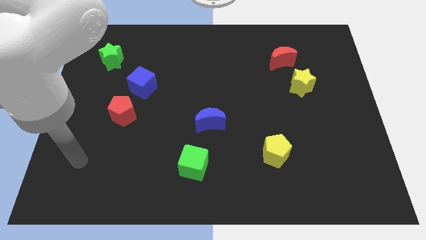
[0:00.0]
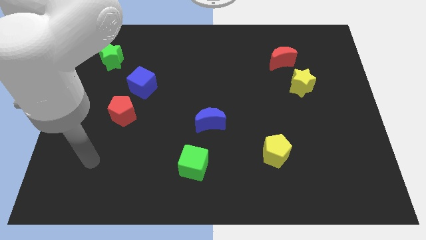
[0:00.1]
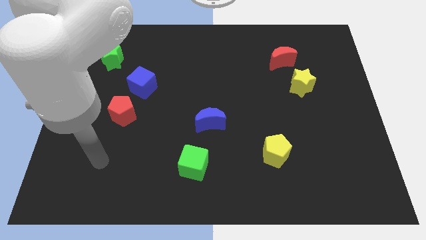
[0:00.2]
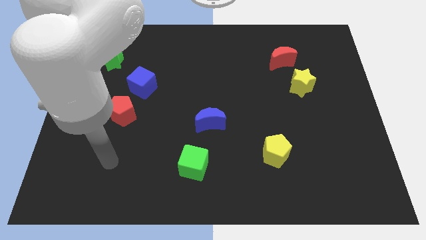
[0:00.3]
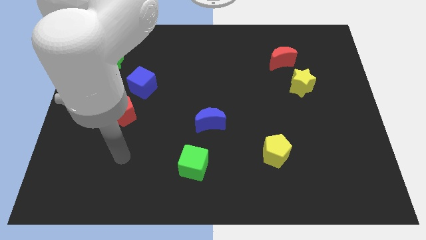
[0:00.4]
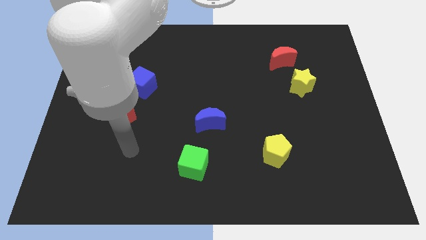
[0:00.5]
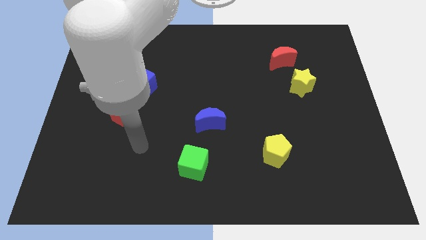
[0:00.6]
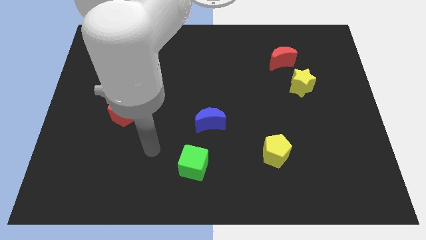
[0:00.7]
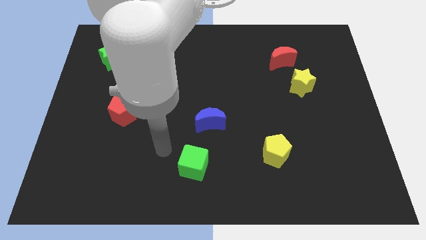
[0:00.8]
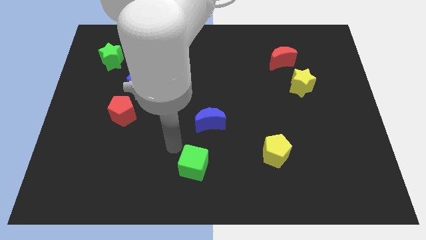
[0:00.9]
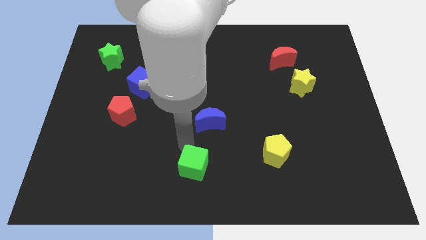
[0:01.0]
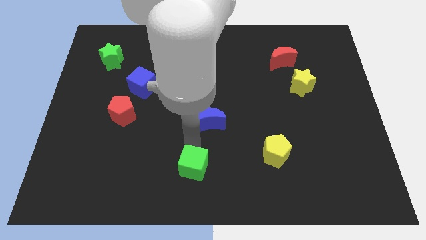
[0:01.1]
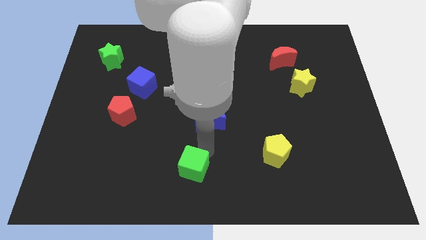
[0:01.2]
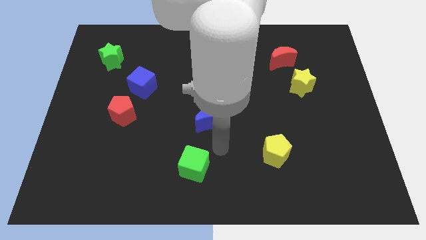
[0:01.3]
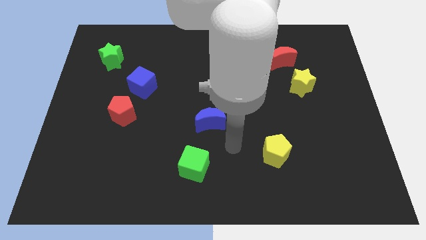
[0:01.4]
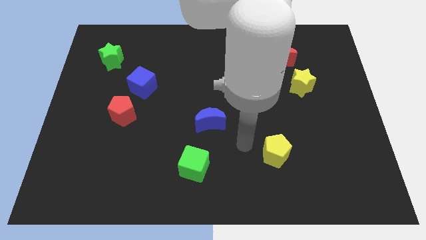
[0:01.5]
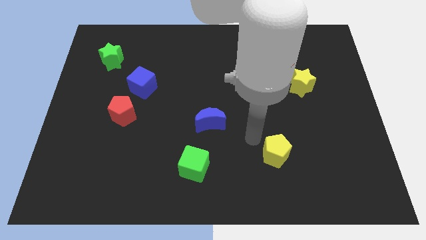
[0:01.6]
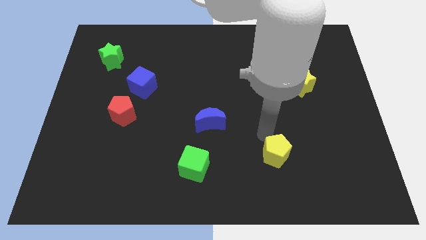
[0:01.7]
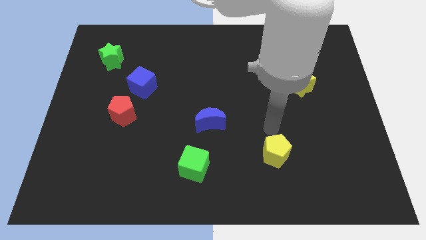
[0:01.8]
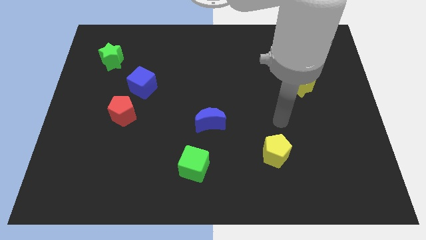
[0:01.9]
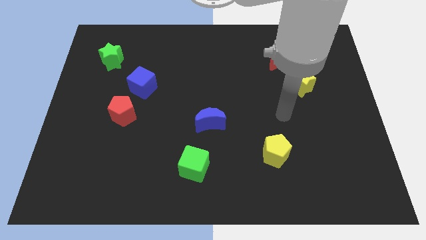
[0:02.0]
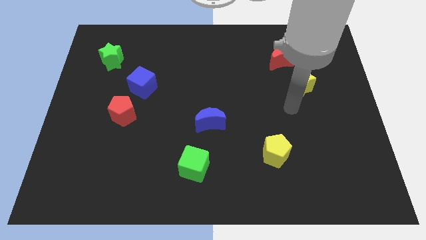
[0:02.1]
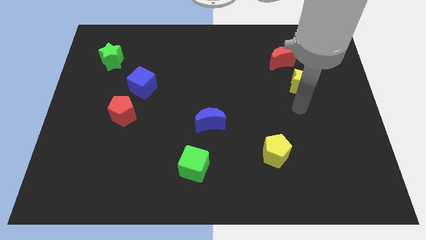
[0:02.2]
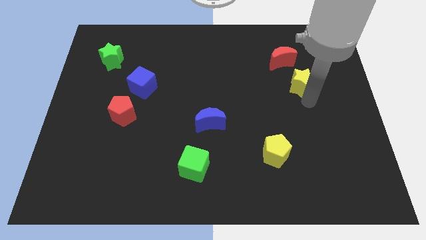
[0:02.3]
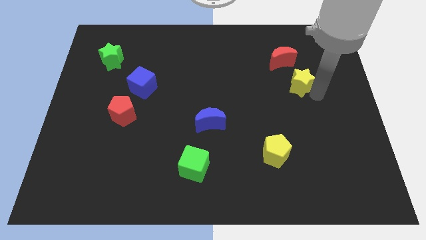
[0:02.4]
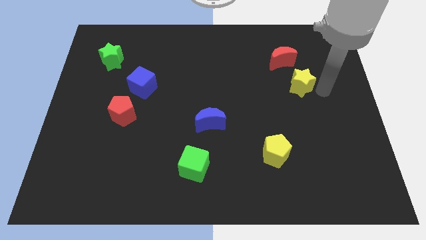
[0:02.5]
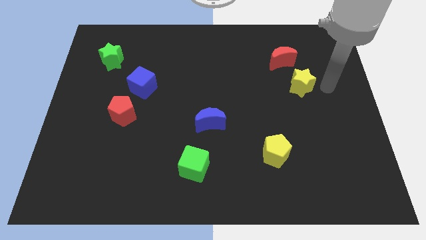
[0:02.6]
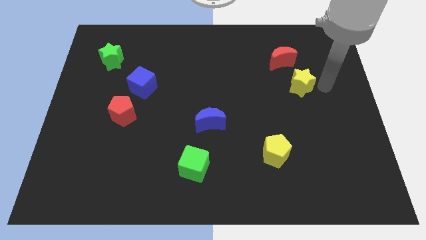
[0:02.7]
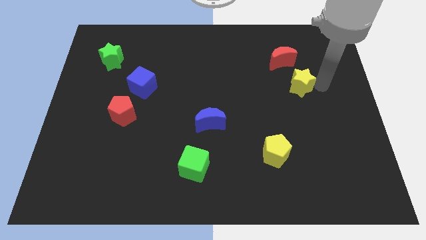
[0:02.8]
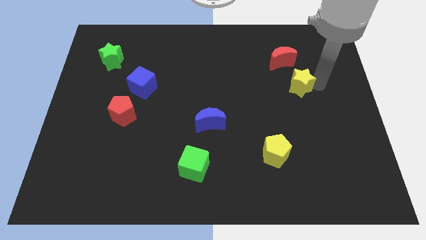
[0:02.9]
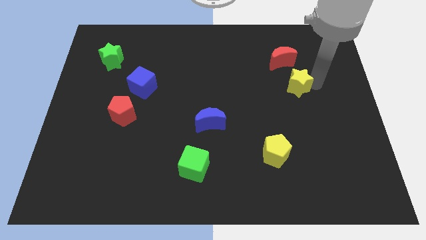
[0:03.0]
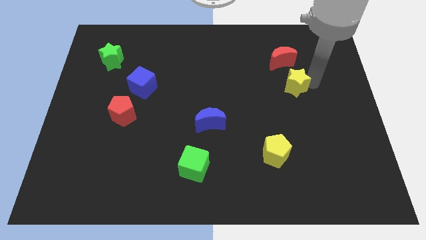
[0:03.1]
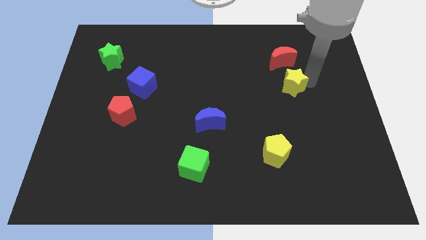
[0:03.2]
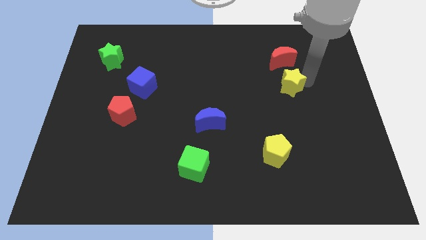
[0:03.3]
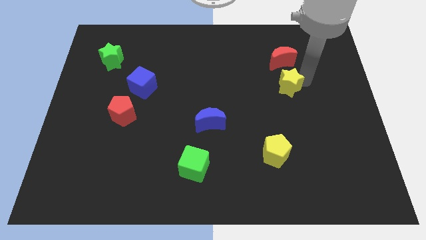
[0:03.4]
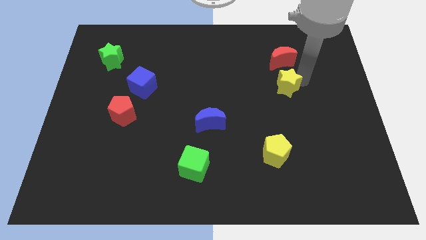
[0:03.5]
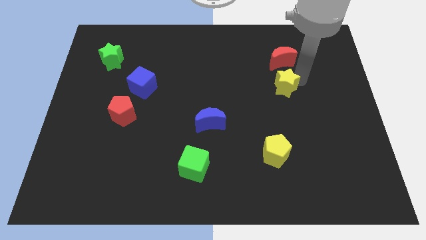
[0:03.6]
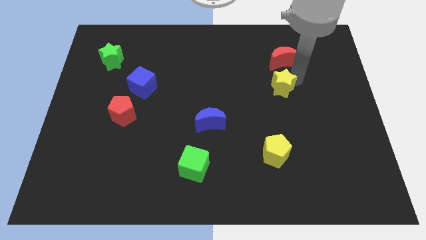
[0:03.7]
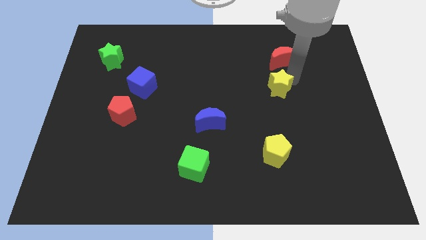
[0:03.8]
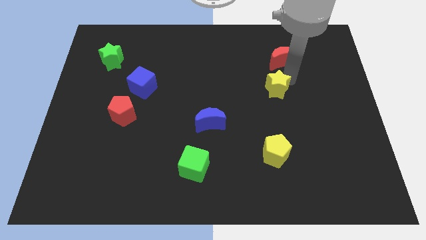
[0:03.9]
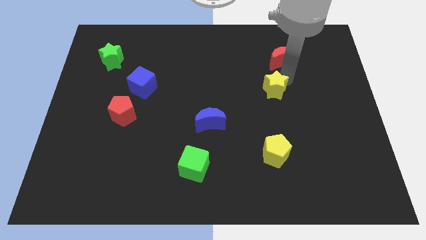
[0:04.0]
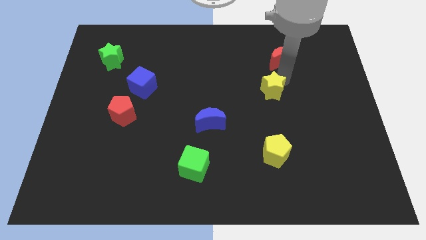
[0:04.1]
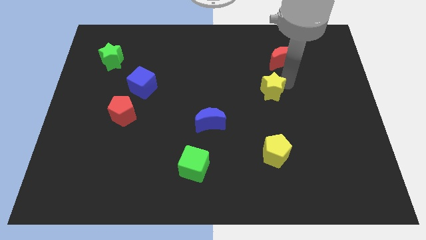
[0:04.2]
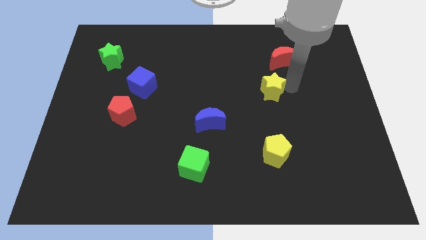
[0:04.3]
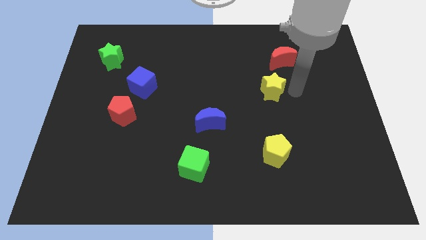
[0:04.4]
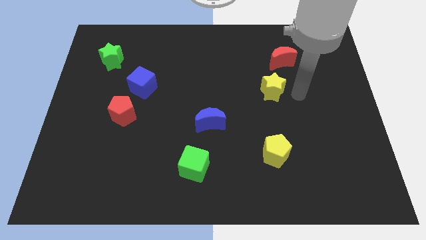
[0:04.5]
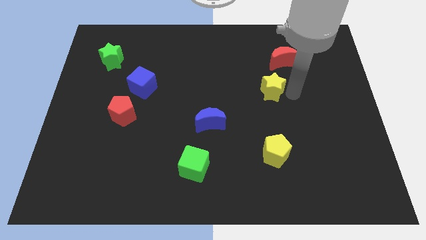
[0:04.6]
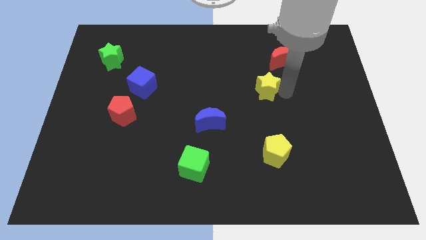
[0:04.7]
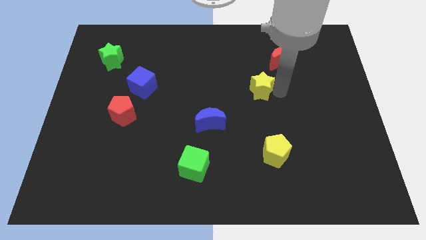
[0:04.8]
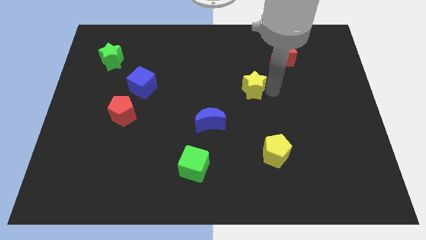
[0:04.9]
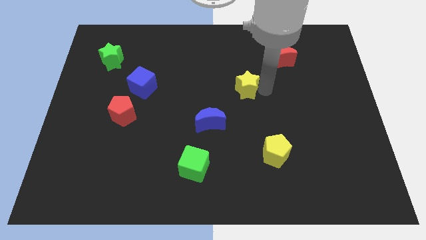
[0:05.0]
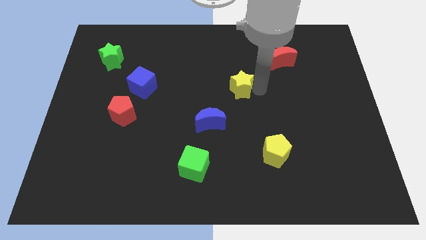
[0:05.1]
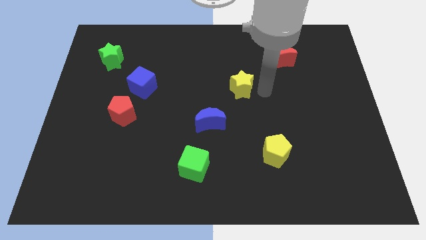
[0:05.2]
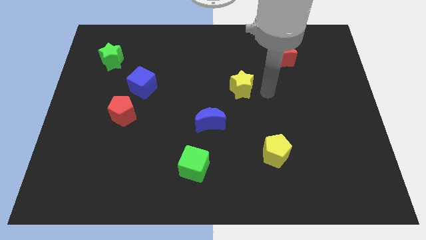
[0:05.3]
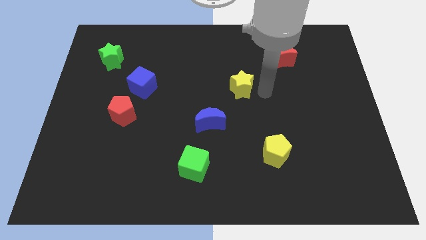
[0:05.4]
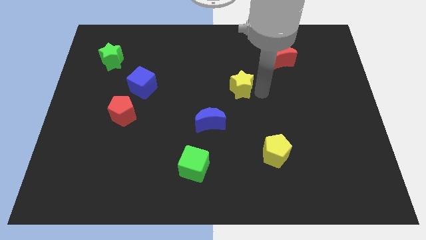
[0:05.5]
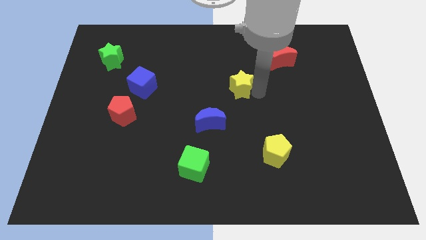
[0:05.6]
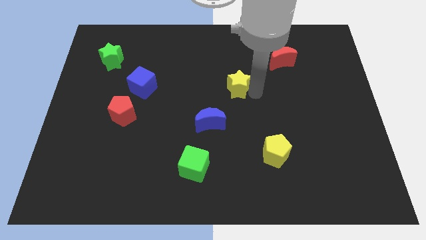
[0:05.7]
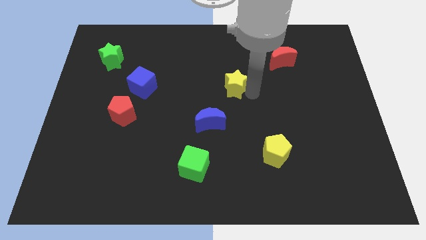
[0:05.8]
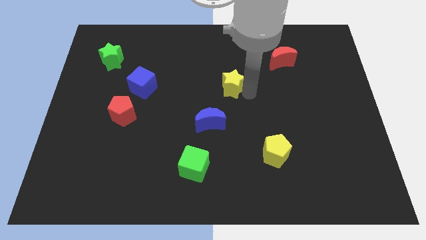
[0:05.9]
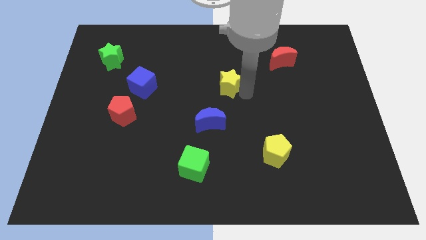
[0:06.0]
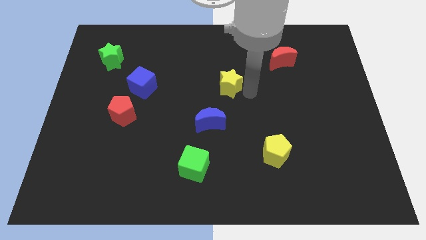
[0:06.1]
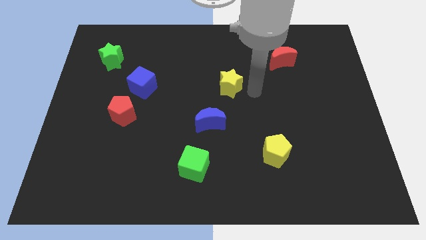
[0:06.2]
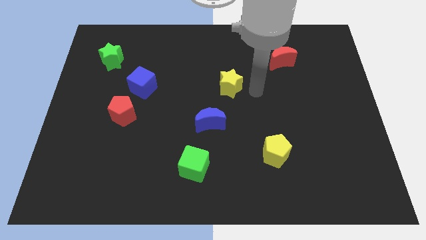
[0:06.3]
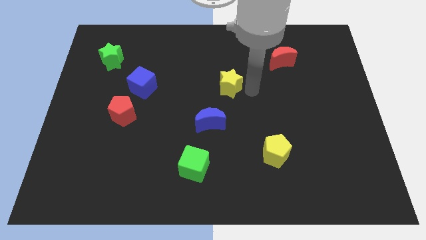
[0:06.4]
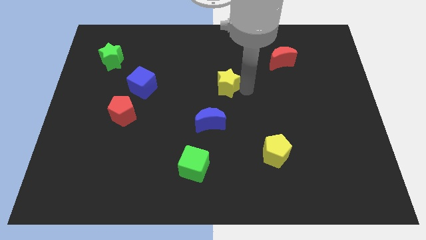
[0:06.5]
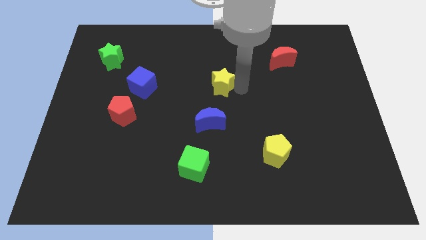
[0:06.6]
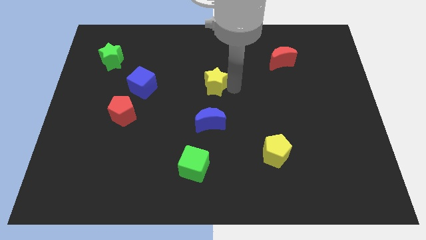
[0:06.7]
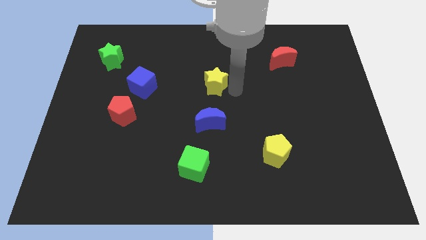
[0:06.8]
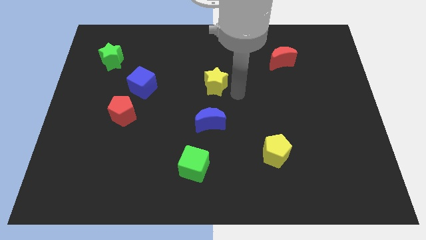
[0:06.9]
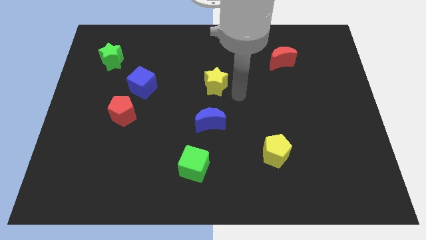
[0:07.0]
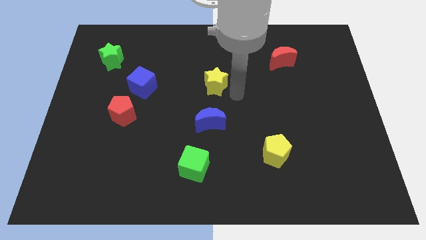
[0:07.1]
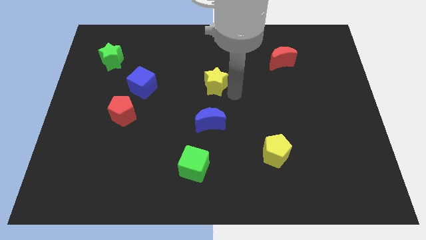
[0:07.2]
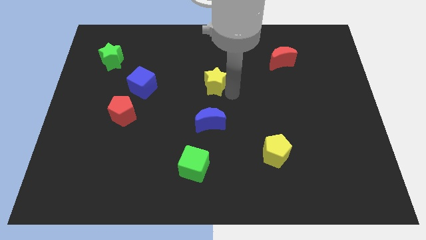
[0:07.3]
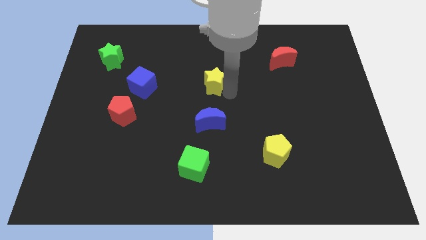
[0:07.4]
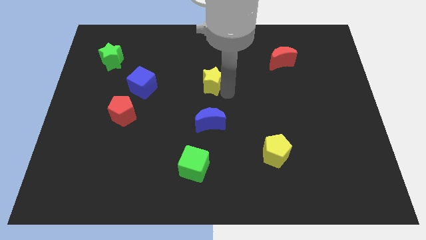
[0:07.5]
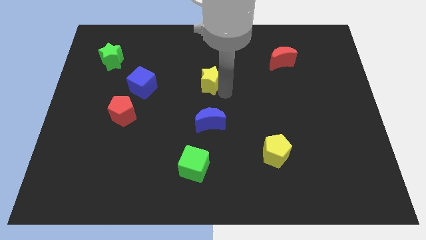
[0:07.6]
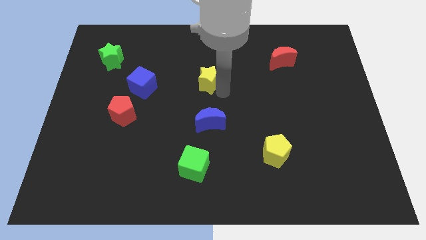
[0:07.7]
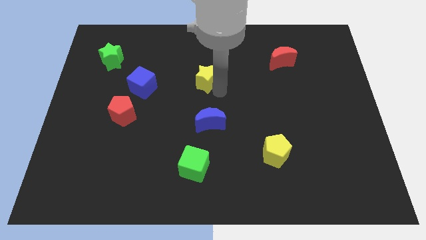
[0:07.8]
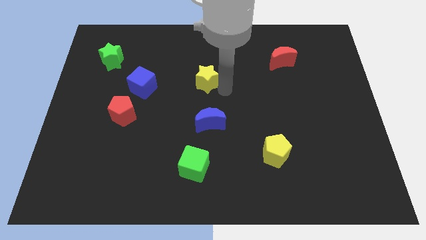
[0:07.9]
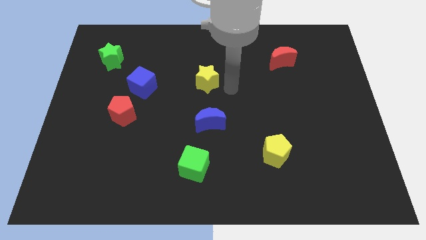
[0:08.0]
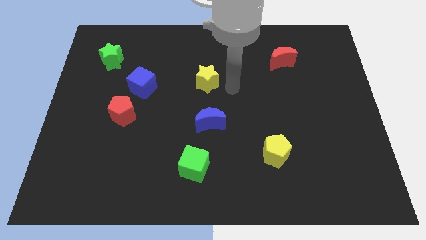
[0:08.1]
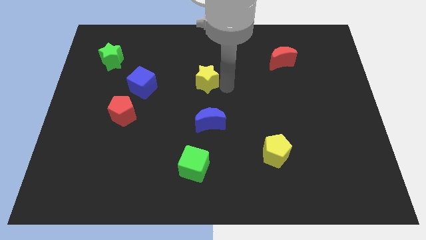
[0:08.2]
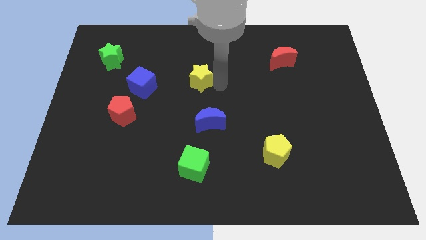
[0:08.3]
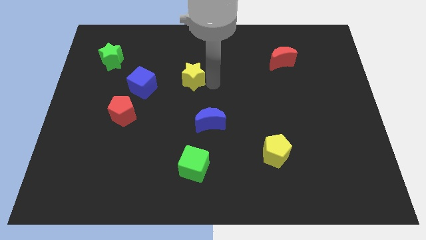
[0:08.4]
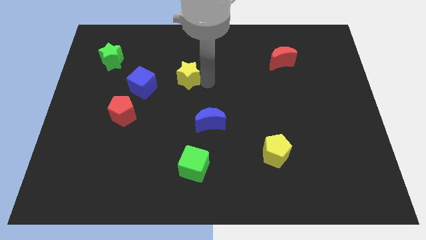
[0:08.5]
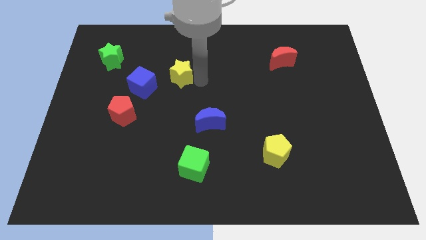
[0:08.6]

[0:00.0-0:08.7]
move the yellow star to the top right side of the blue cube
